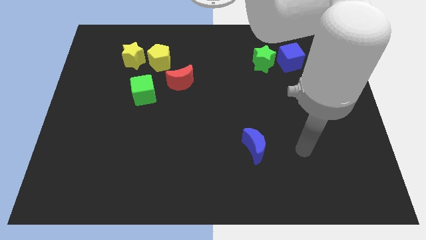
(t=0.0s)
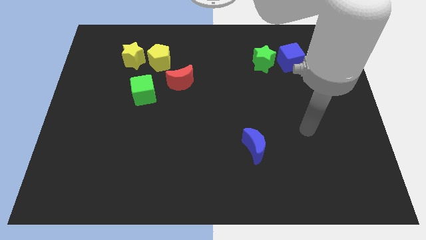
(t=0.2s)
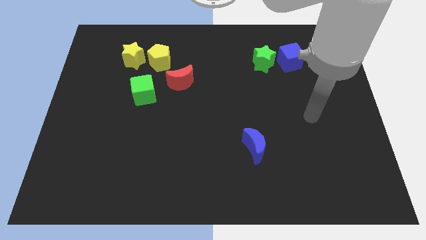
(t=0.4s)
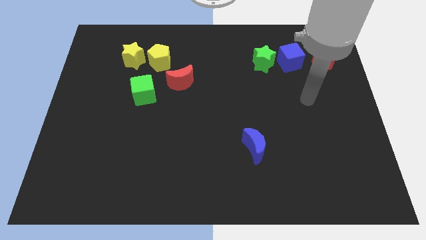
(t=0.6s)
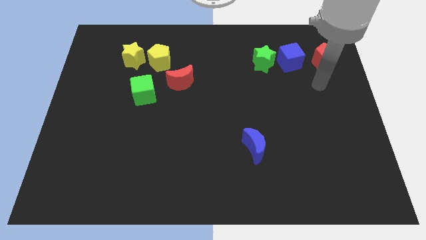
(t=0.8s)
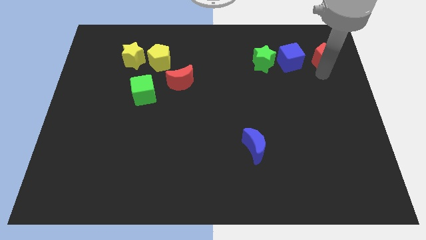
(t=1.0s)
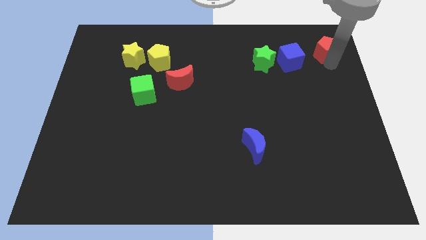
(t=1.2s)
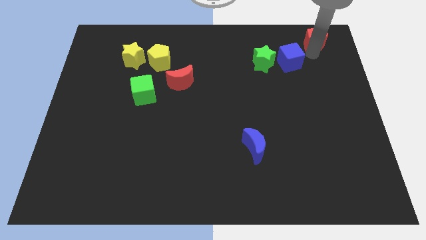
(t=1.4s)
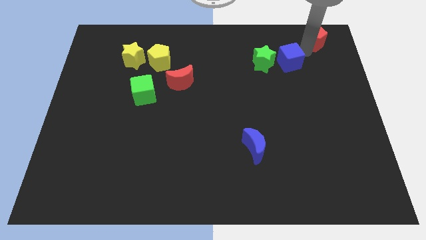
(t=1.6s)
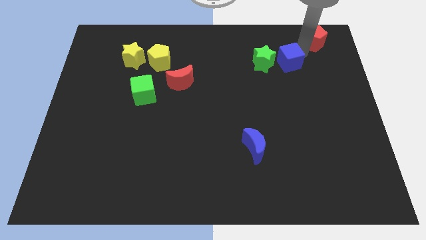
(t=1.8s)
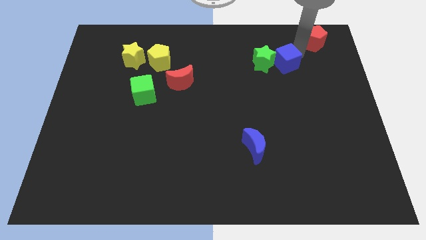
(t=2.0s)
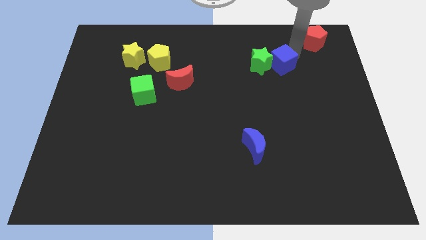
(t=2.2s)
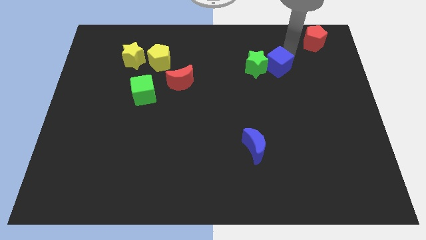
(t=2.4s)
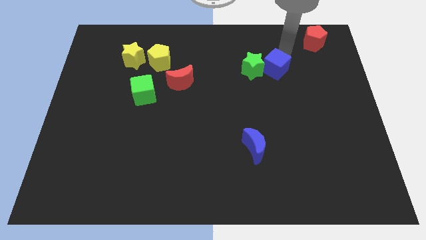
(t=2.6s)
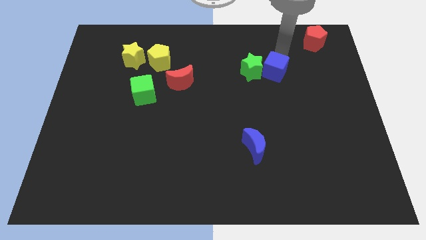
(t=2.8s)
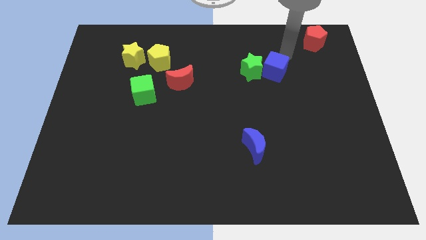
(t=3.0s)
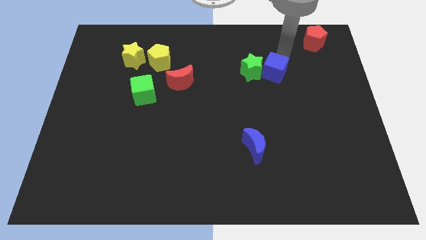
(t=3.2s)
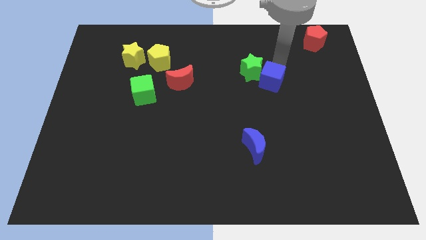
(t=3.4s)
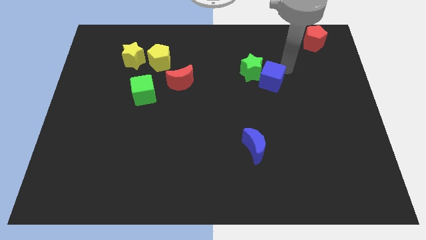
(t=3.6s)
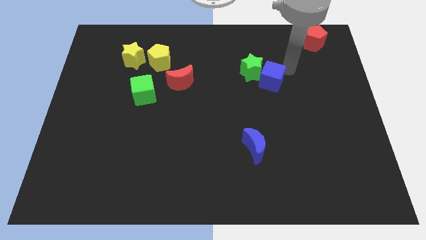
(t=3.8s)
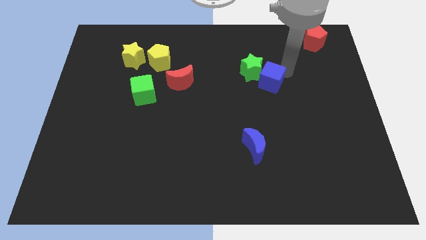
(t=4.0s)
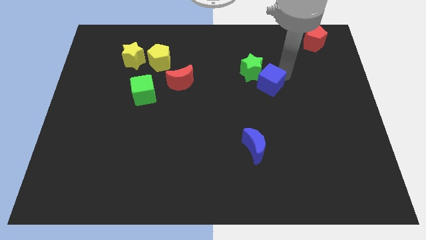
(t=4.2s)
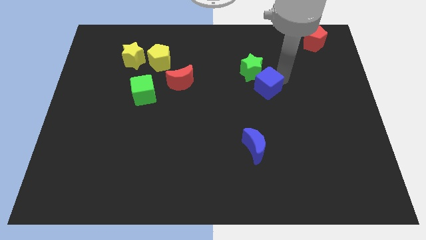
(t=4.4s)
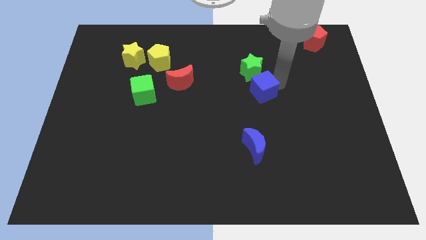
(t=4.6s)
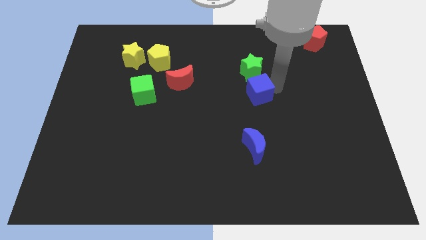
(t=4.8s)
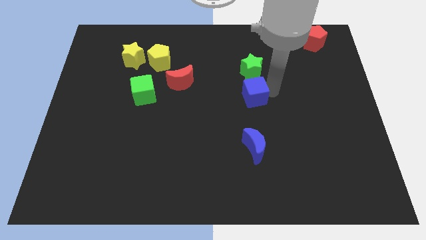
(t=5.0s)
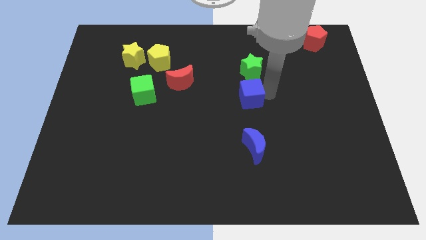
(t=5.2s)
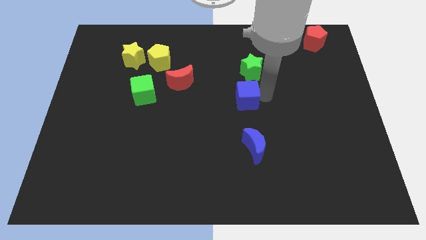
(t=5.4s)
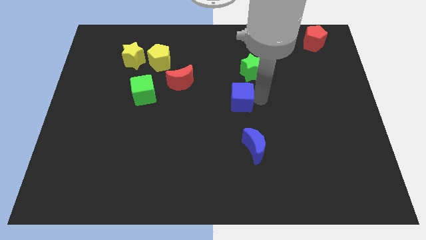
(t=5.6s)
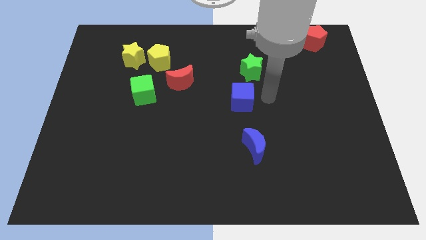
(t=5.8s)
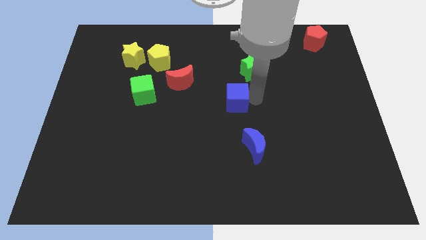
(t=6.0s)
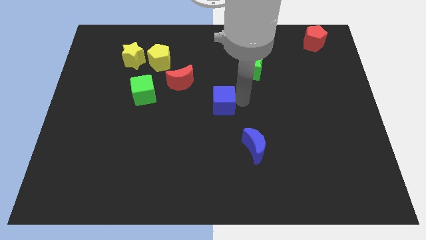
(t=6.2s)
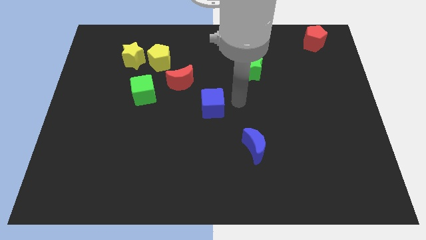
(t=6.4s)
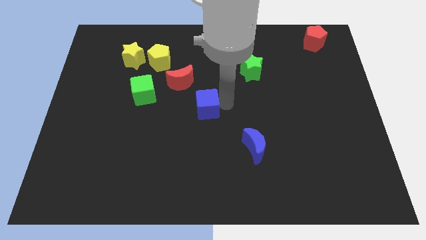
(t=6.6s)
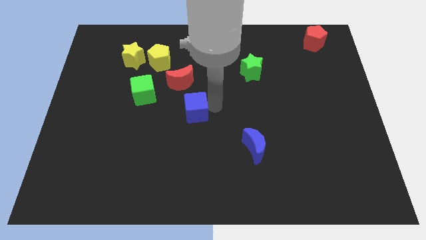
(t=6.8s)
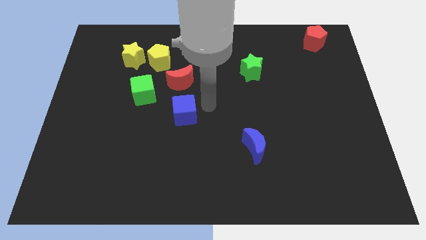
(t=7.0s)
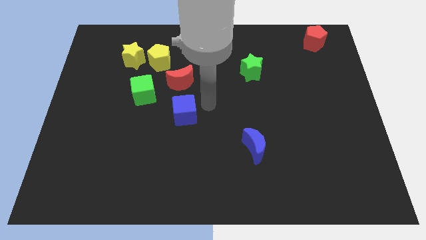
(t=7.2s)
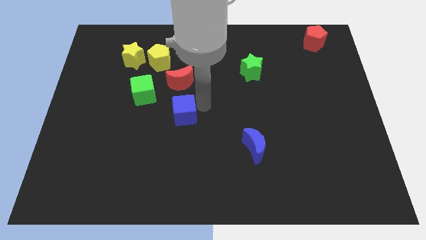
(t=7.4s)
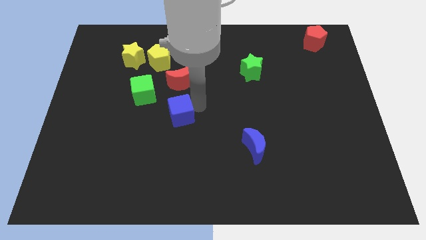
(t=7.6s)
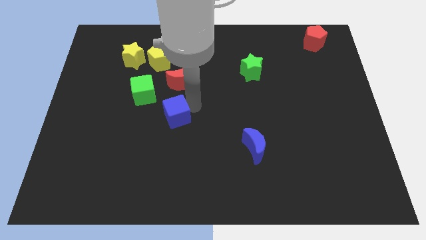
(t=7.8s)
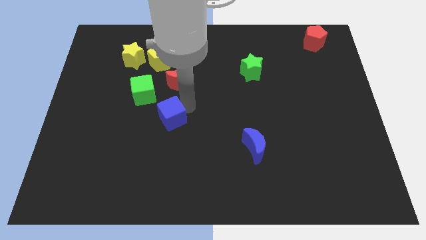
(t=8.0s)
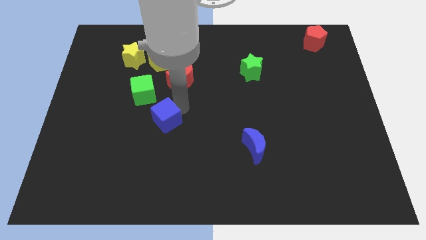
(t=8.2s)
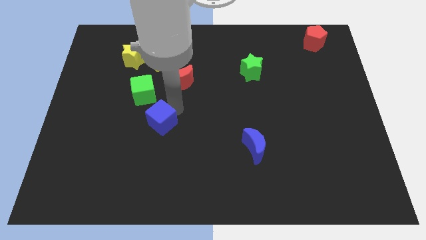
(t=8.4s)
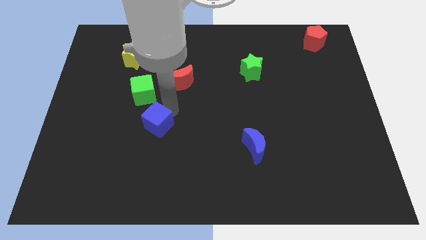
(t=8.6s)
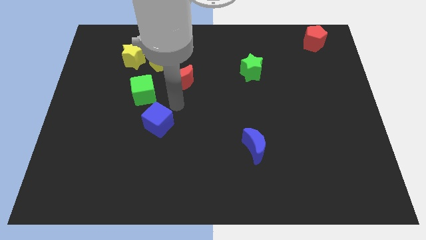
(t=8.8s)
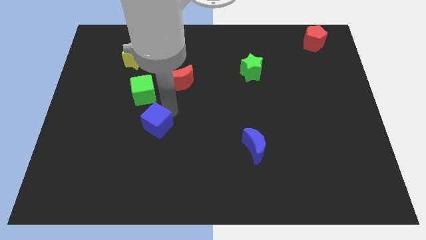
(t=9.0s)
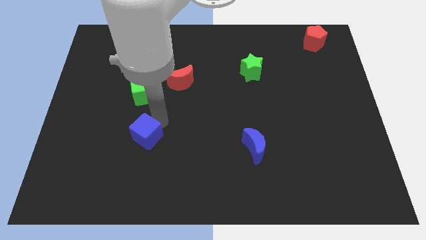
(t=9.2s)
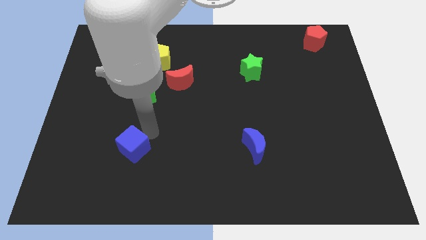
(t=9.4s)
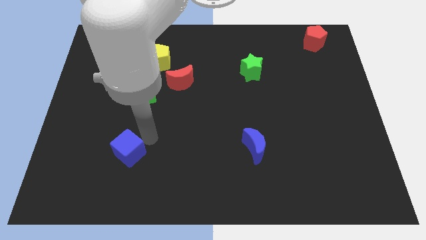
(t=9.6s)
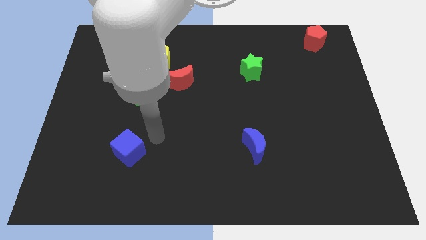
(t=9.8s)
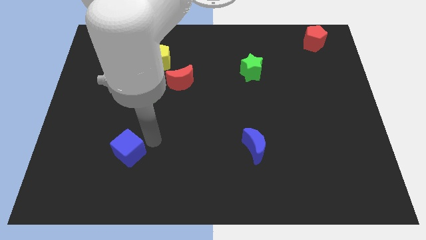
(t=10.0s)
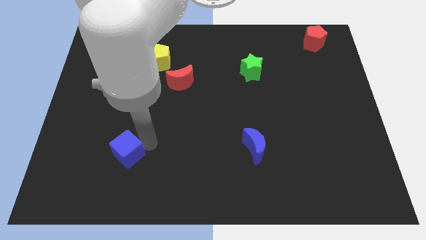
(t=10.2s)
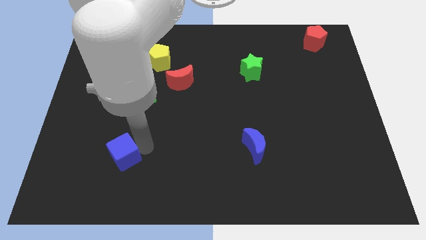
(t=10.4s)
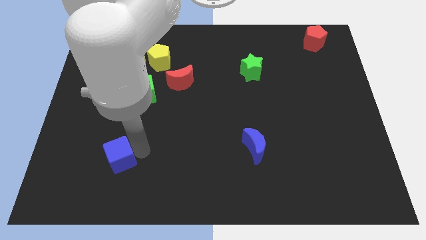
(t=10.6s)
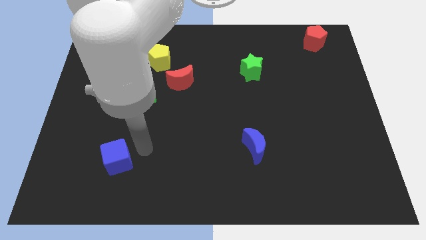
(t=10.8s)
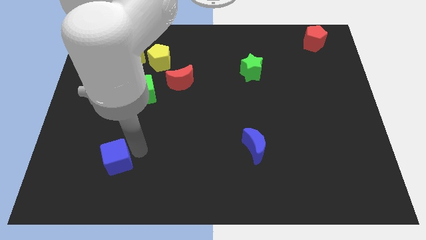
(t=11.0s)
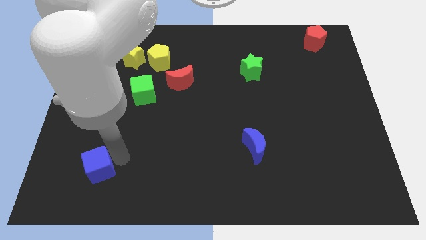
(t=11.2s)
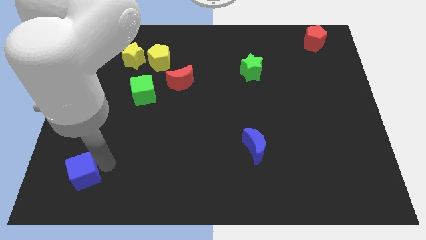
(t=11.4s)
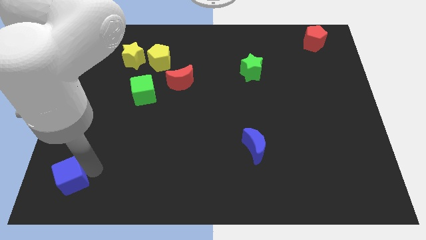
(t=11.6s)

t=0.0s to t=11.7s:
put the blue cube to the lower left corner
